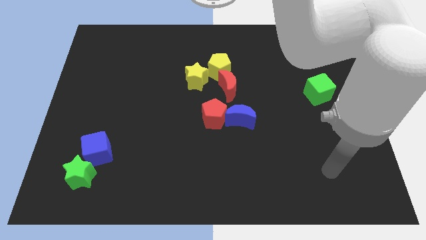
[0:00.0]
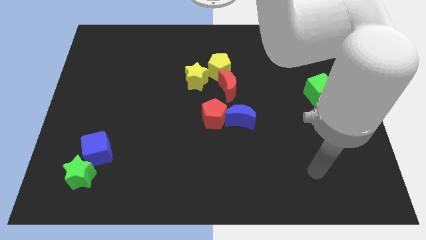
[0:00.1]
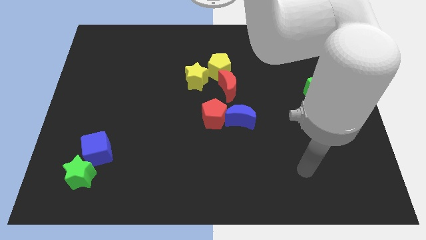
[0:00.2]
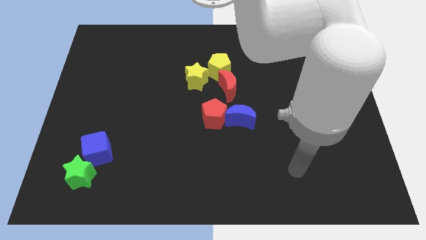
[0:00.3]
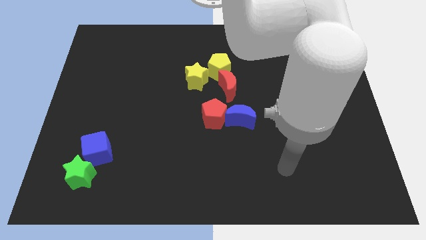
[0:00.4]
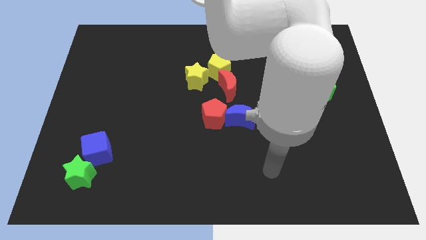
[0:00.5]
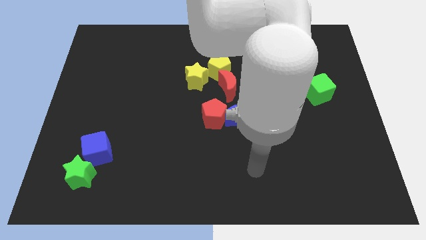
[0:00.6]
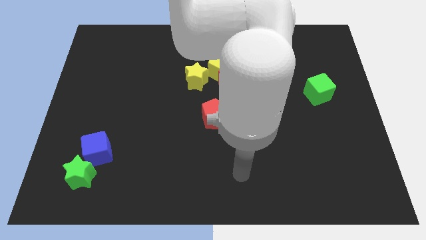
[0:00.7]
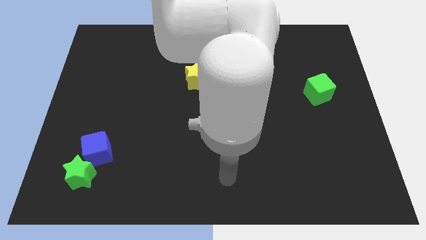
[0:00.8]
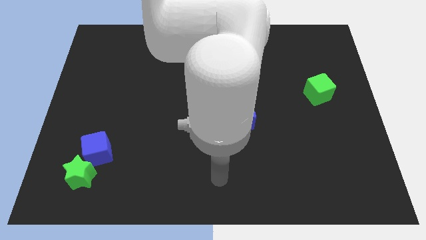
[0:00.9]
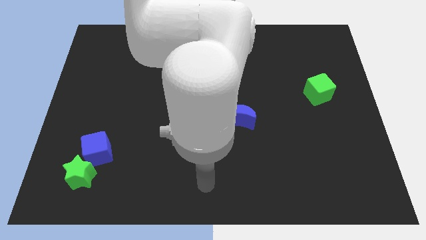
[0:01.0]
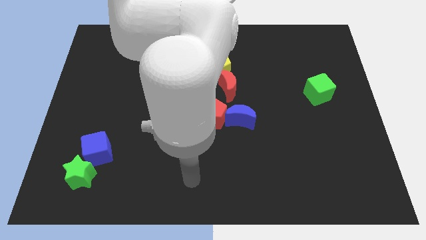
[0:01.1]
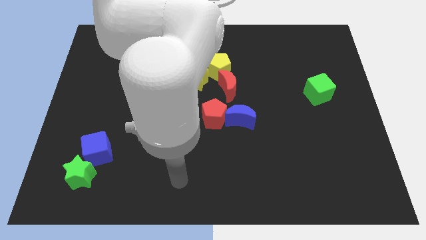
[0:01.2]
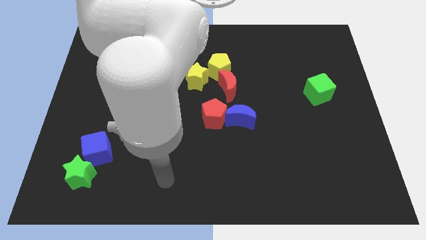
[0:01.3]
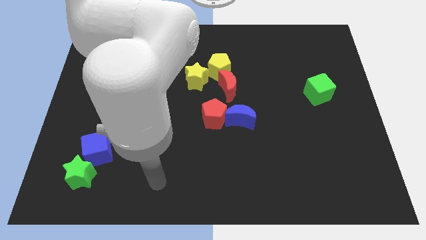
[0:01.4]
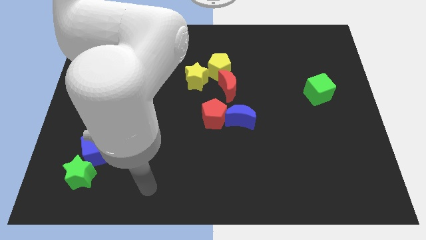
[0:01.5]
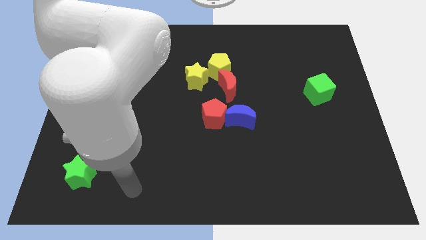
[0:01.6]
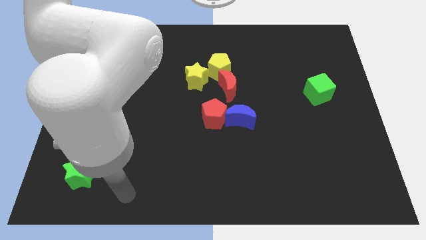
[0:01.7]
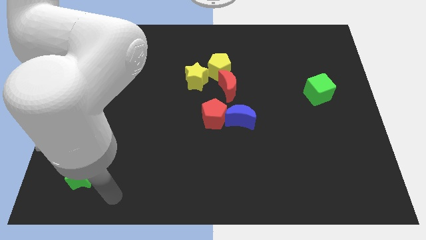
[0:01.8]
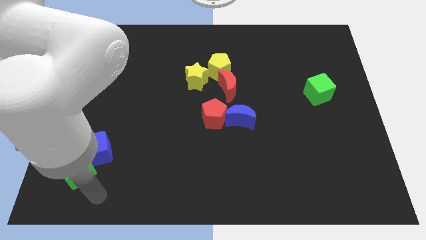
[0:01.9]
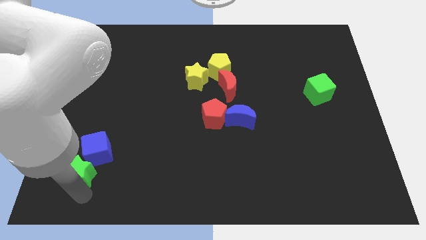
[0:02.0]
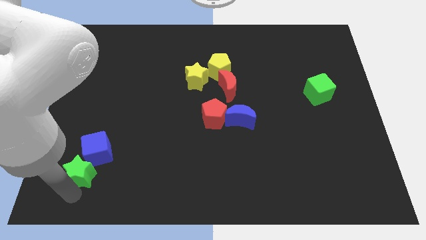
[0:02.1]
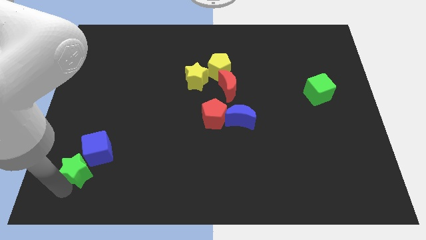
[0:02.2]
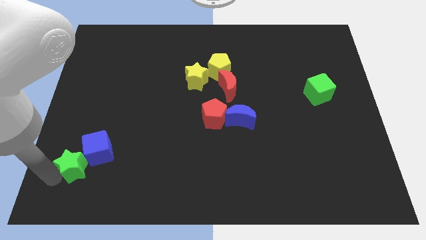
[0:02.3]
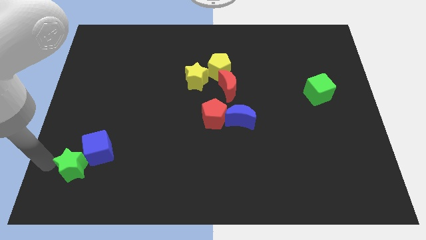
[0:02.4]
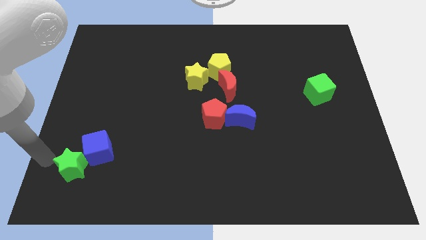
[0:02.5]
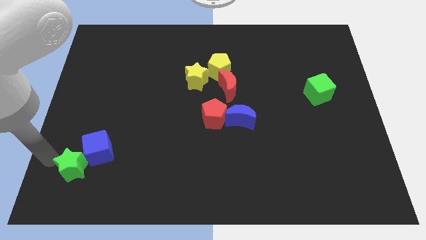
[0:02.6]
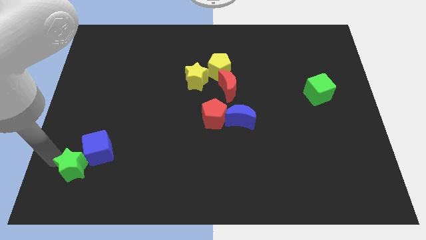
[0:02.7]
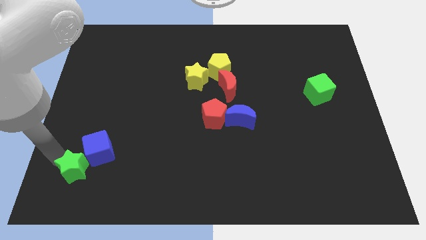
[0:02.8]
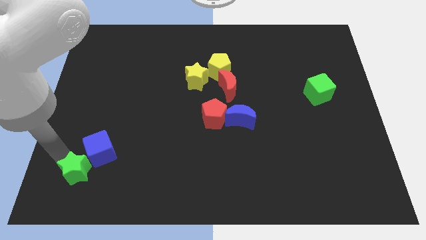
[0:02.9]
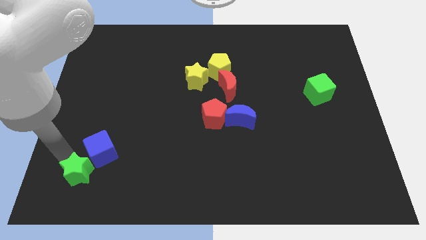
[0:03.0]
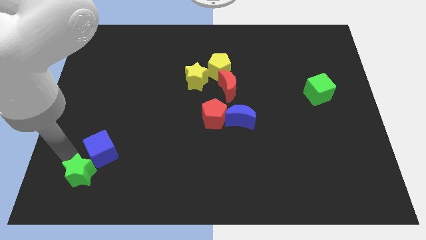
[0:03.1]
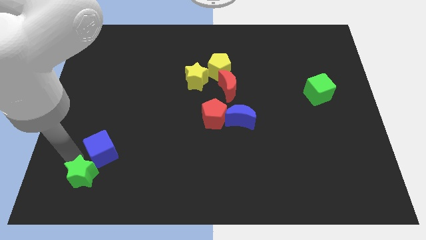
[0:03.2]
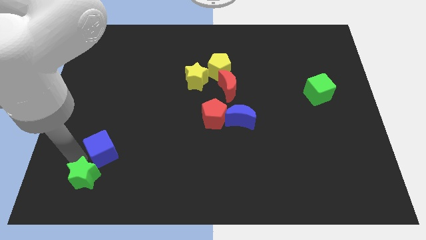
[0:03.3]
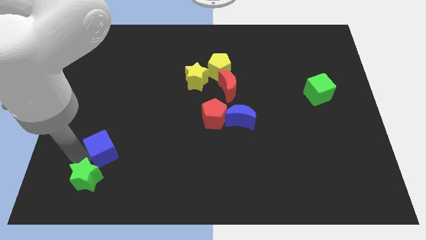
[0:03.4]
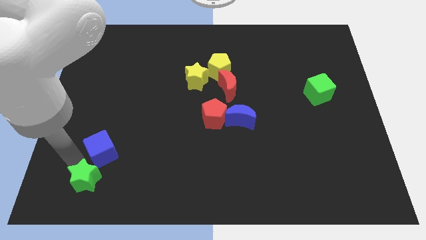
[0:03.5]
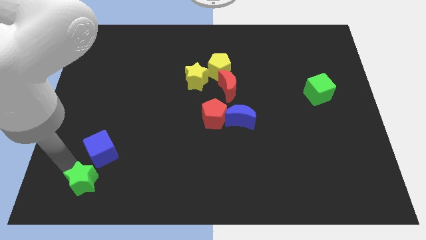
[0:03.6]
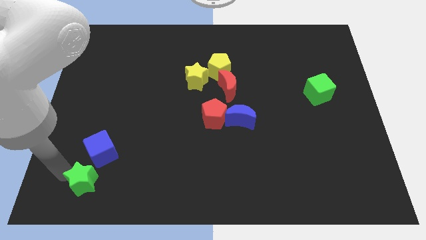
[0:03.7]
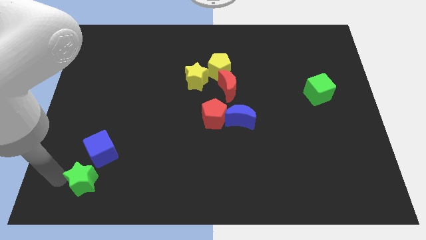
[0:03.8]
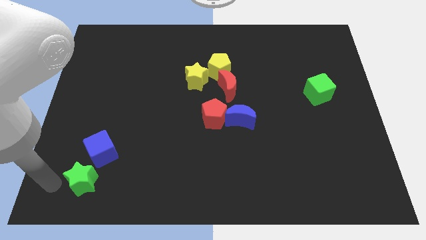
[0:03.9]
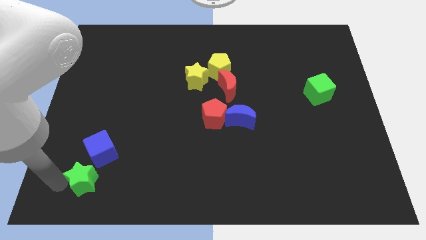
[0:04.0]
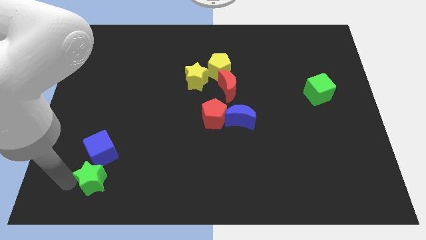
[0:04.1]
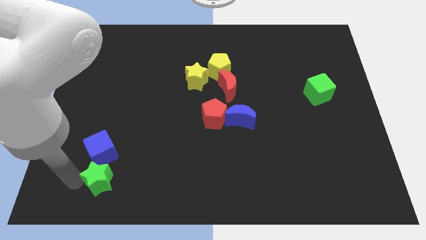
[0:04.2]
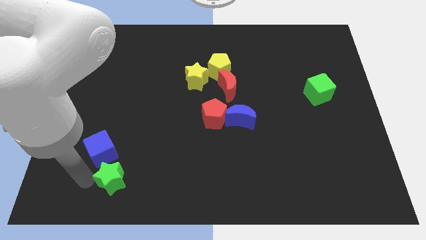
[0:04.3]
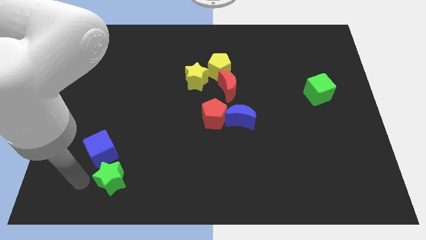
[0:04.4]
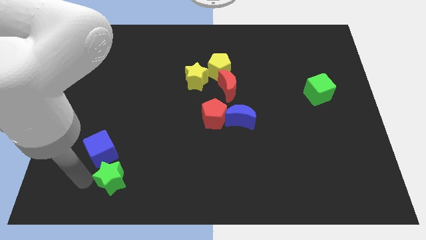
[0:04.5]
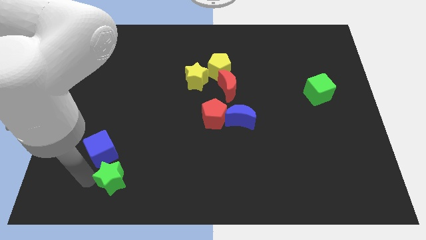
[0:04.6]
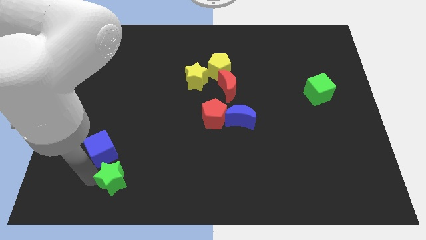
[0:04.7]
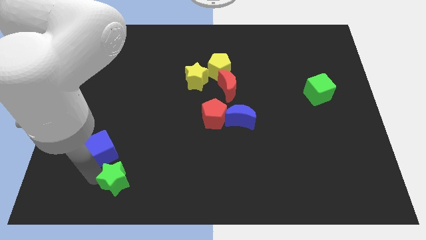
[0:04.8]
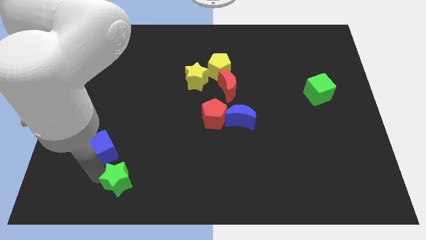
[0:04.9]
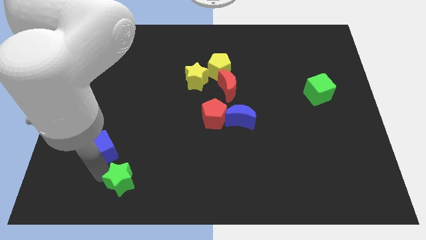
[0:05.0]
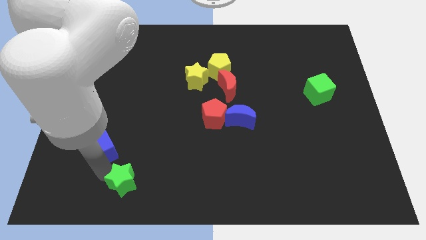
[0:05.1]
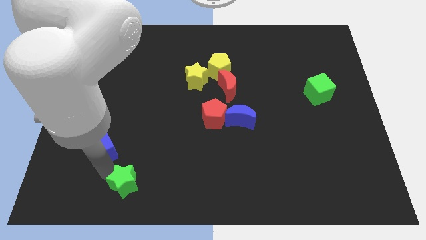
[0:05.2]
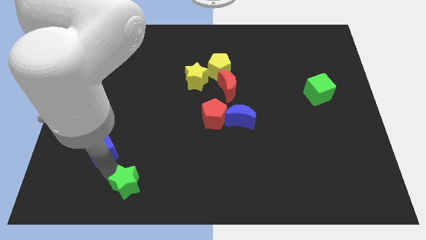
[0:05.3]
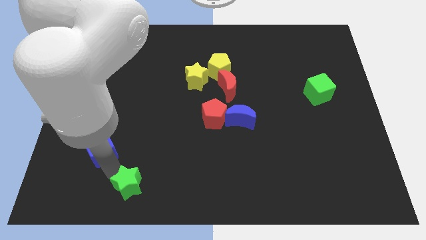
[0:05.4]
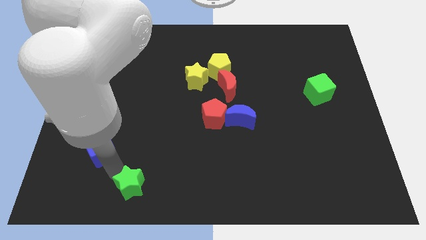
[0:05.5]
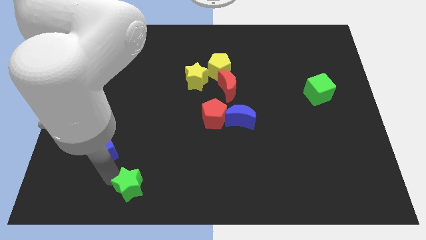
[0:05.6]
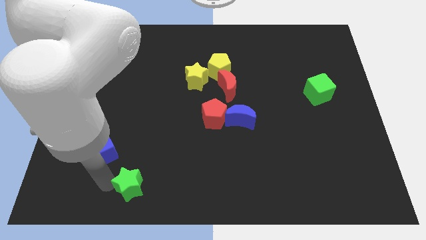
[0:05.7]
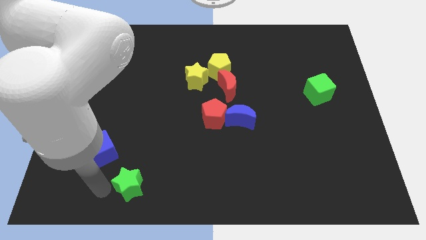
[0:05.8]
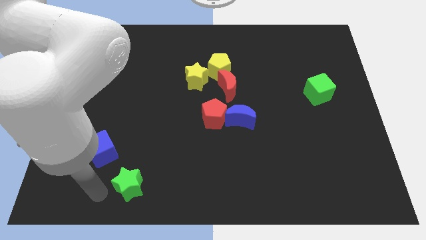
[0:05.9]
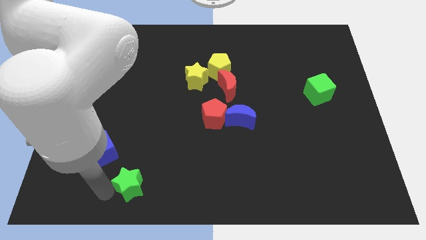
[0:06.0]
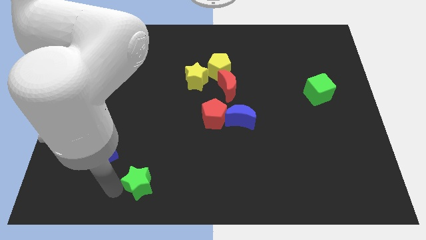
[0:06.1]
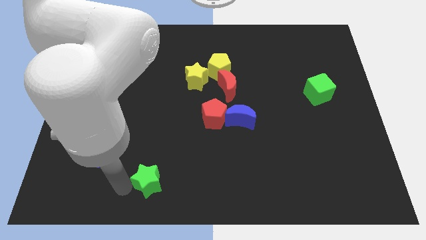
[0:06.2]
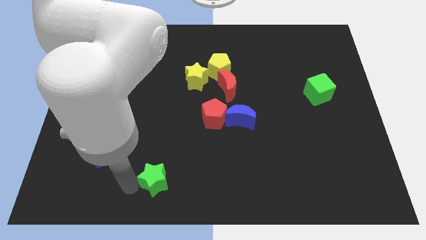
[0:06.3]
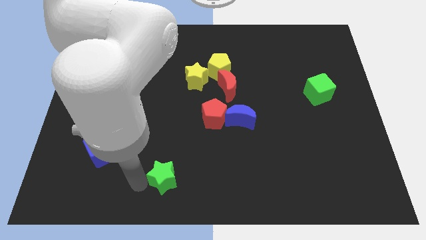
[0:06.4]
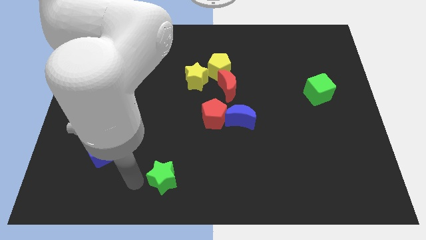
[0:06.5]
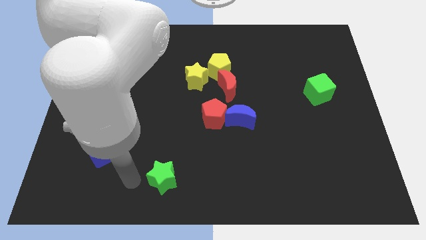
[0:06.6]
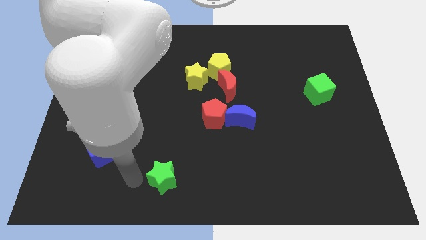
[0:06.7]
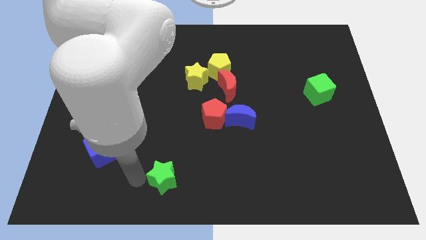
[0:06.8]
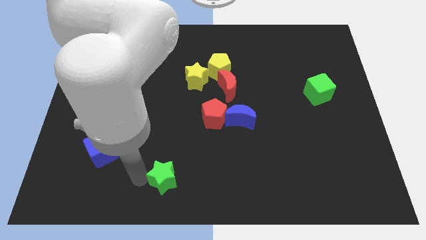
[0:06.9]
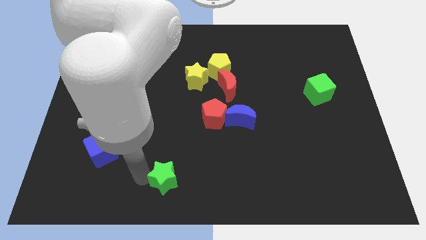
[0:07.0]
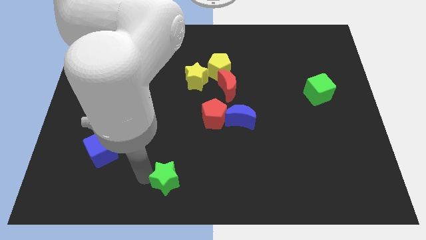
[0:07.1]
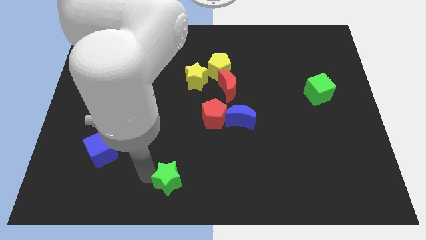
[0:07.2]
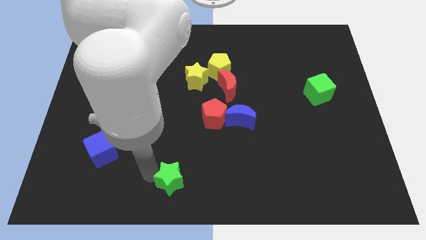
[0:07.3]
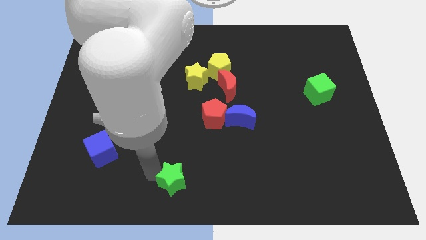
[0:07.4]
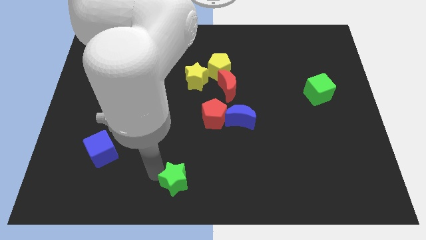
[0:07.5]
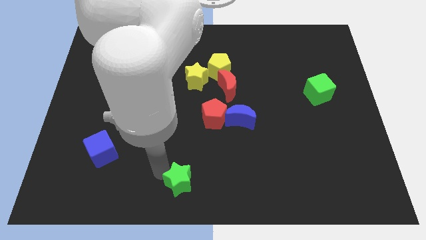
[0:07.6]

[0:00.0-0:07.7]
push the green star to the right
